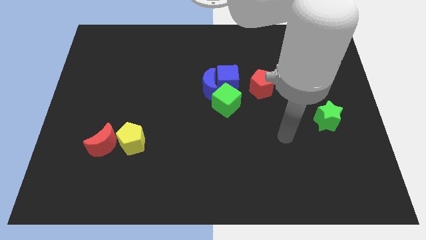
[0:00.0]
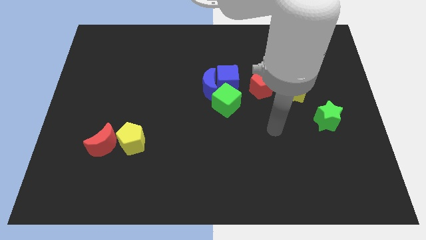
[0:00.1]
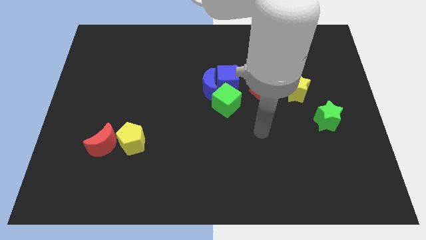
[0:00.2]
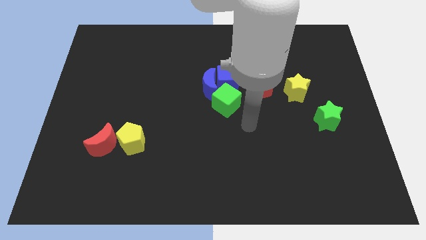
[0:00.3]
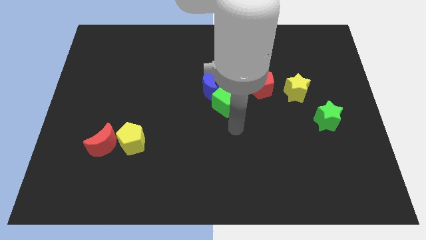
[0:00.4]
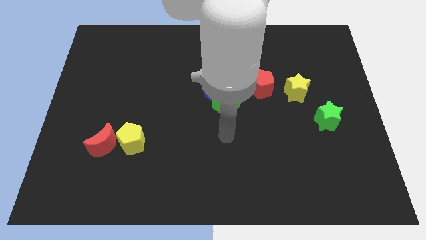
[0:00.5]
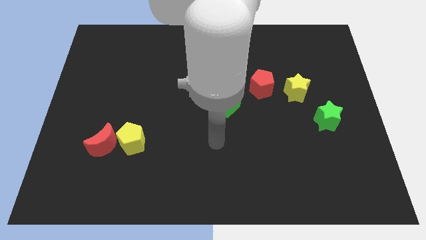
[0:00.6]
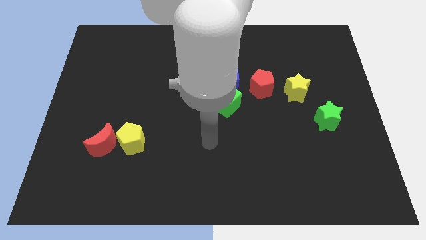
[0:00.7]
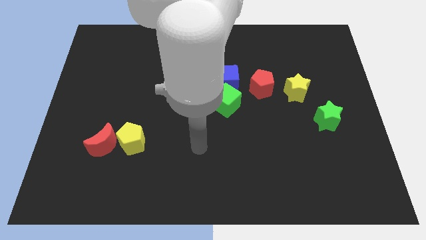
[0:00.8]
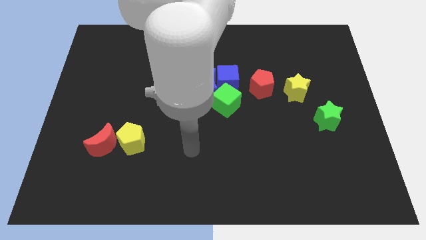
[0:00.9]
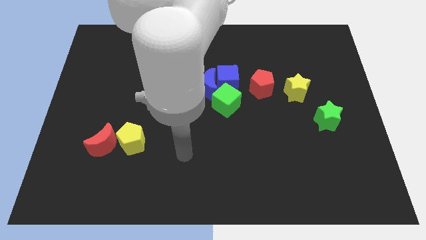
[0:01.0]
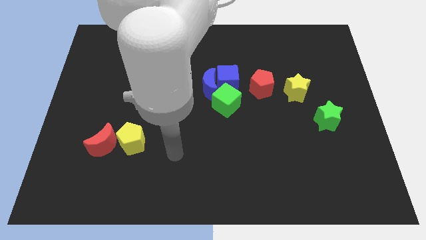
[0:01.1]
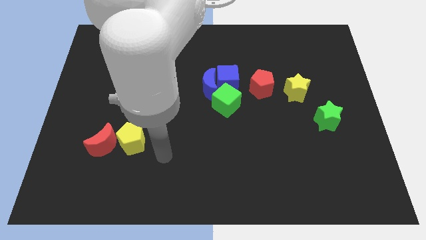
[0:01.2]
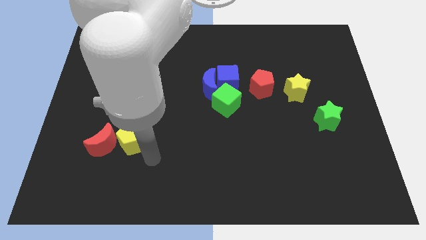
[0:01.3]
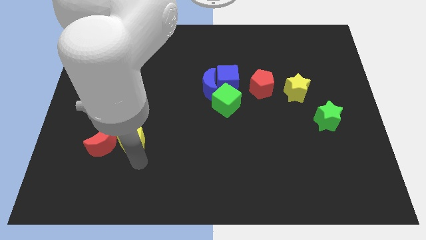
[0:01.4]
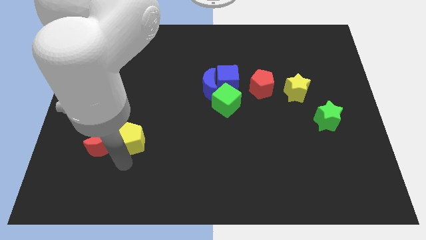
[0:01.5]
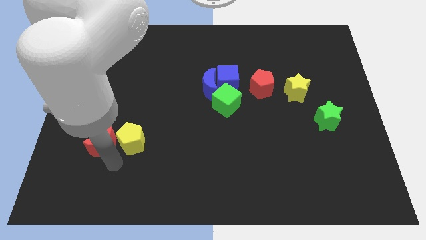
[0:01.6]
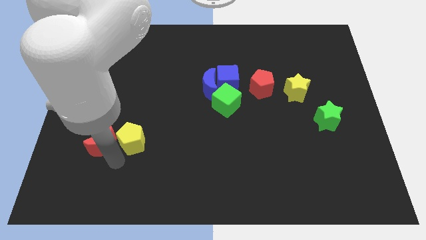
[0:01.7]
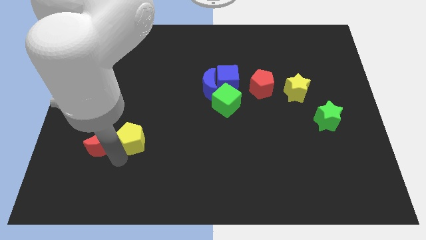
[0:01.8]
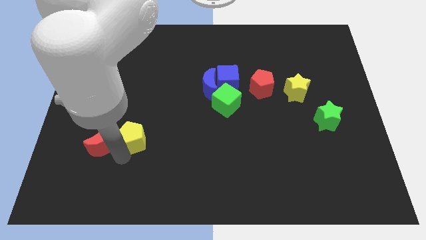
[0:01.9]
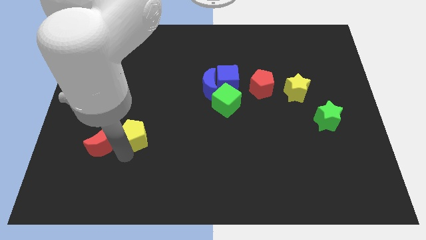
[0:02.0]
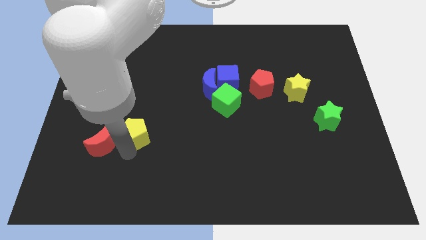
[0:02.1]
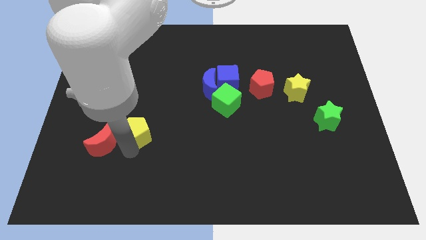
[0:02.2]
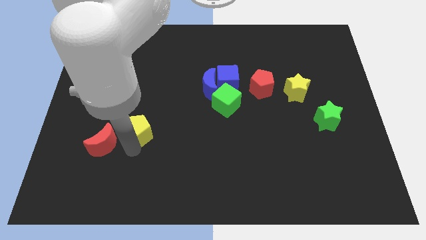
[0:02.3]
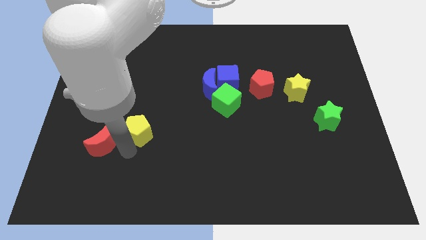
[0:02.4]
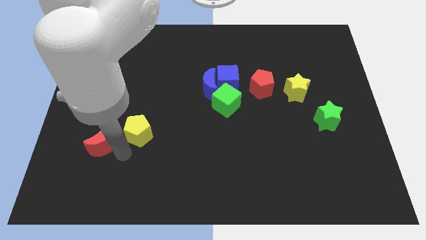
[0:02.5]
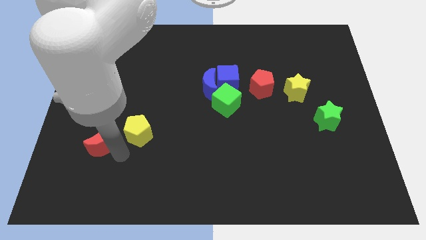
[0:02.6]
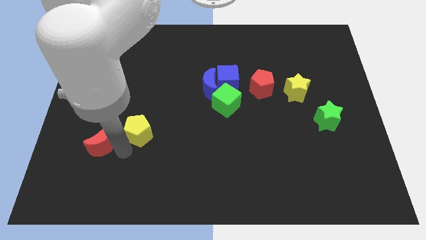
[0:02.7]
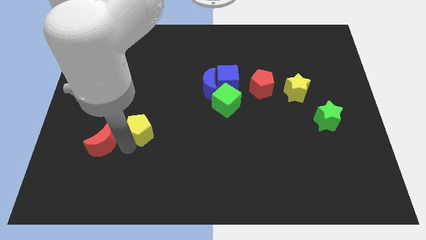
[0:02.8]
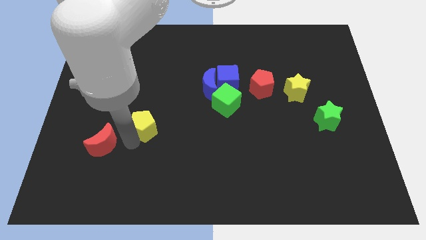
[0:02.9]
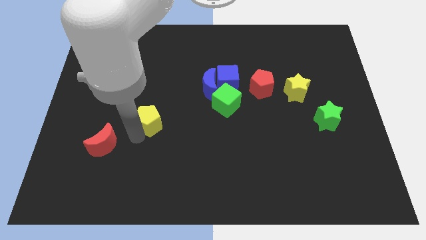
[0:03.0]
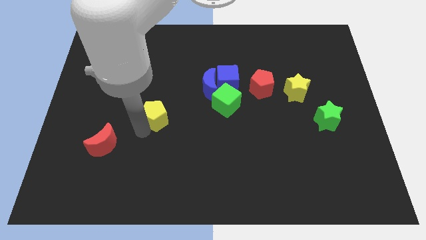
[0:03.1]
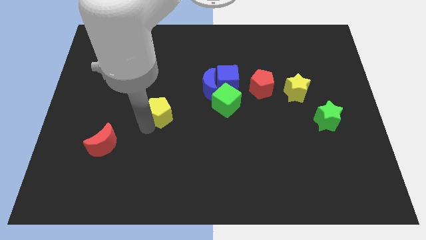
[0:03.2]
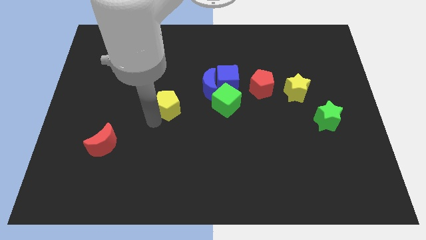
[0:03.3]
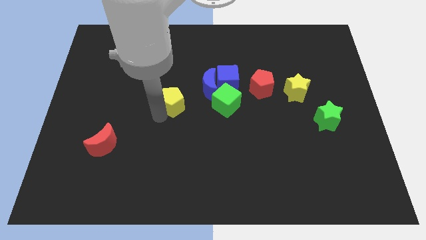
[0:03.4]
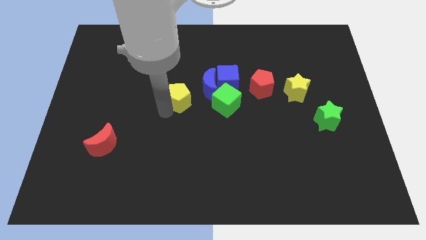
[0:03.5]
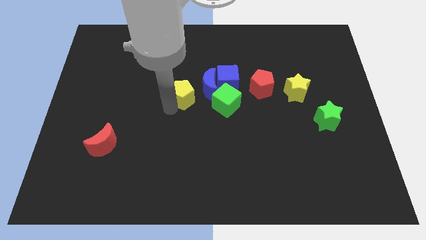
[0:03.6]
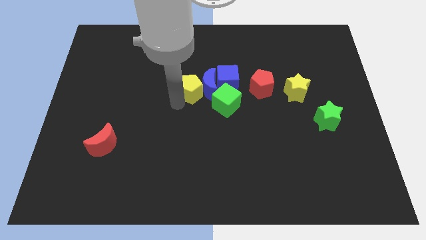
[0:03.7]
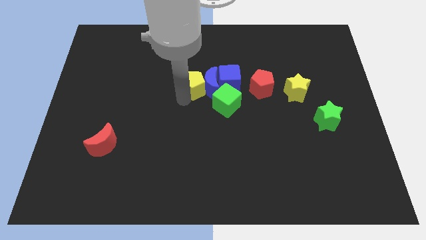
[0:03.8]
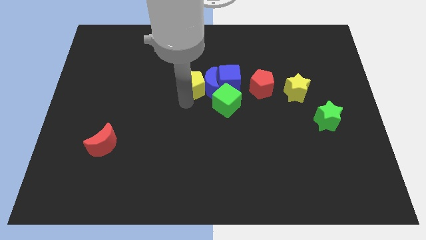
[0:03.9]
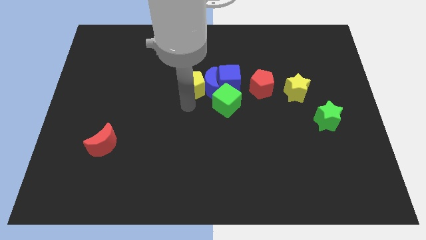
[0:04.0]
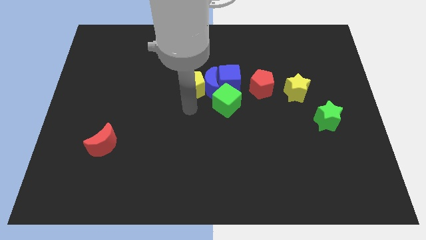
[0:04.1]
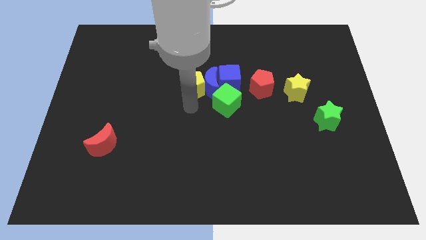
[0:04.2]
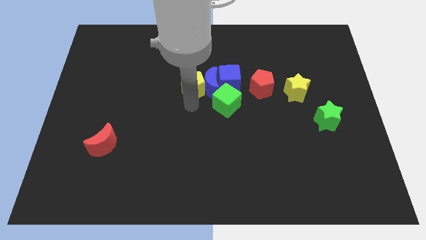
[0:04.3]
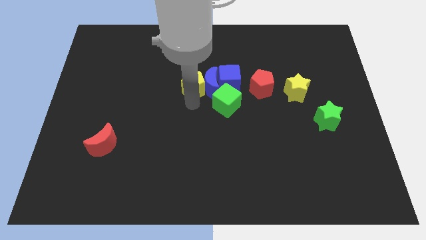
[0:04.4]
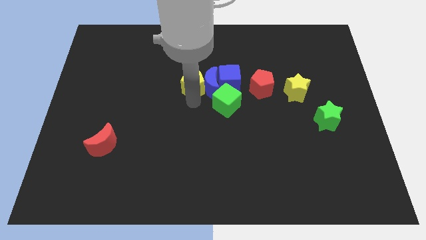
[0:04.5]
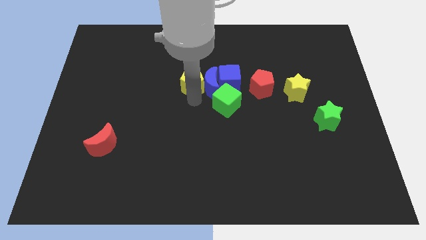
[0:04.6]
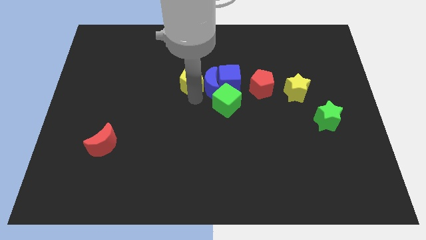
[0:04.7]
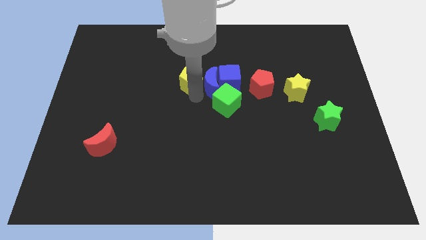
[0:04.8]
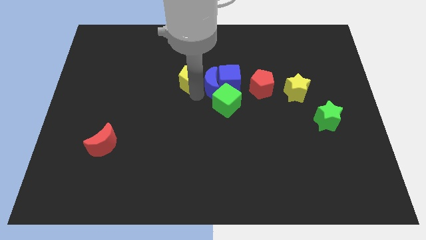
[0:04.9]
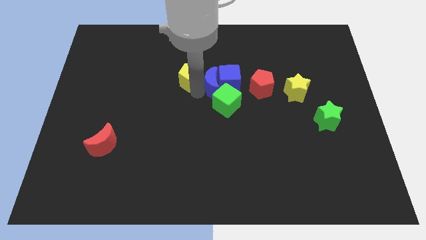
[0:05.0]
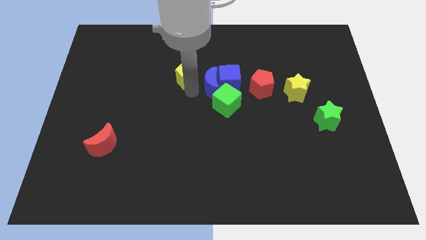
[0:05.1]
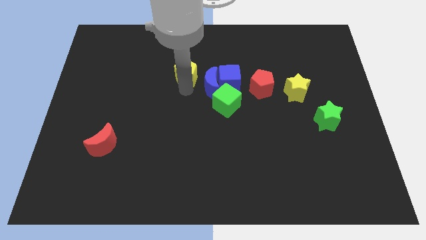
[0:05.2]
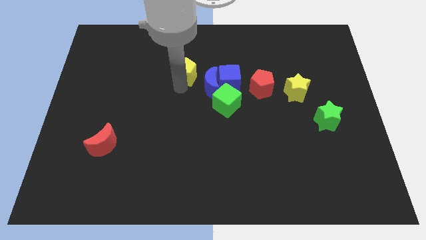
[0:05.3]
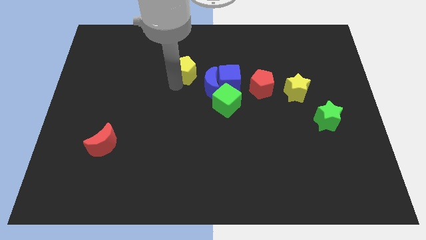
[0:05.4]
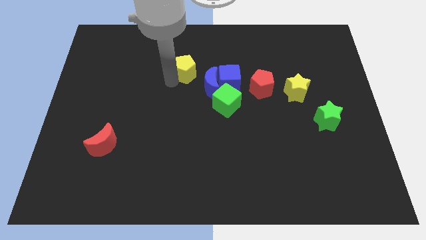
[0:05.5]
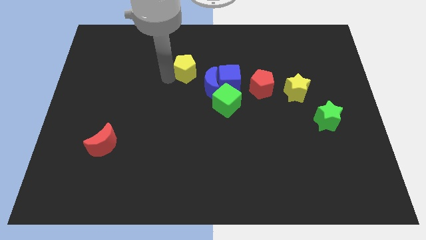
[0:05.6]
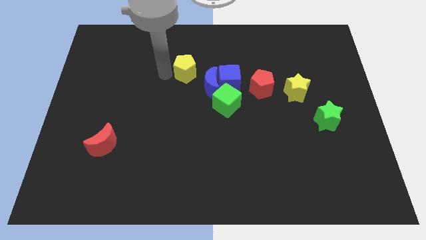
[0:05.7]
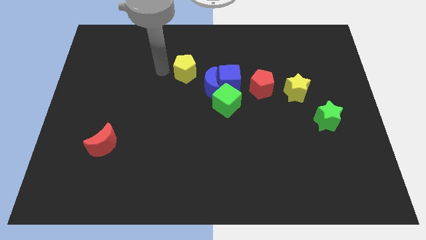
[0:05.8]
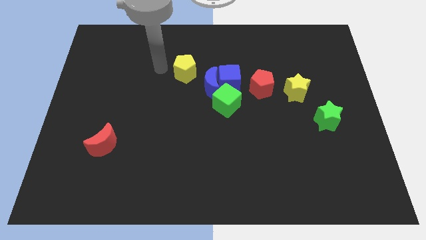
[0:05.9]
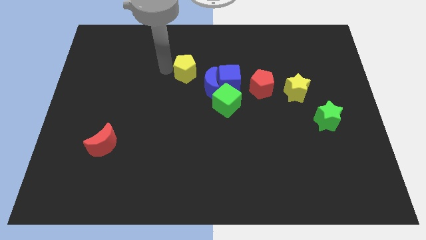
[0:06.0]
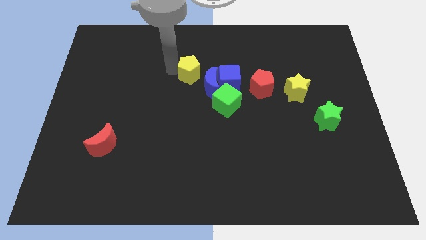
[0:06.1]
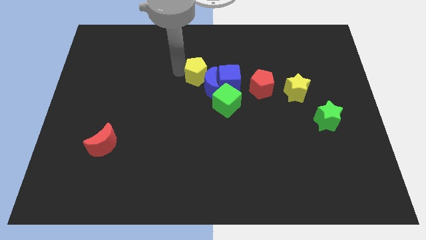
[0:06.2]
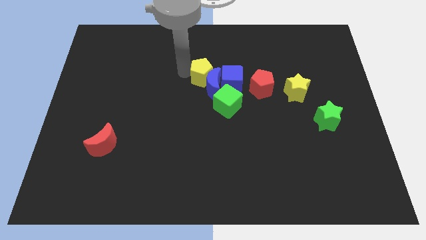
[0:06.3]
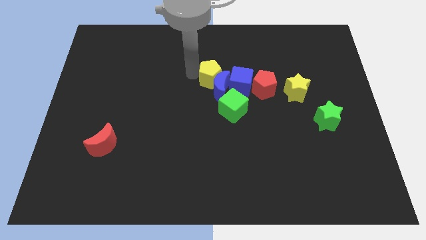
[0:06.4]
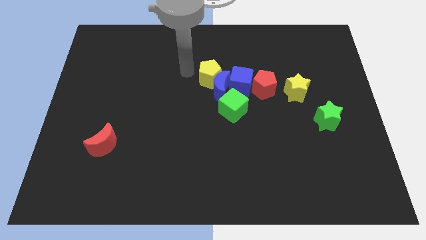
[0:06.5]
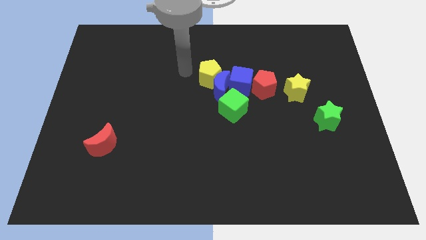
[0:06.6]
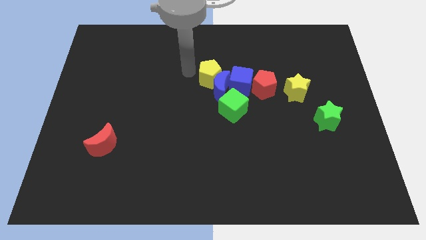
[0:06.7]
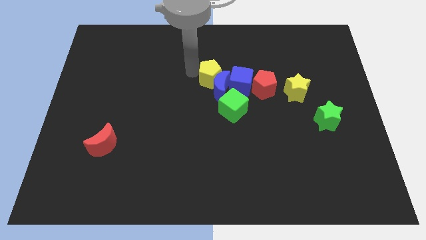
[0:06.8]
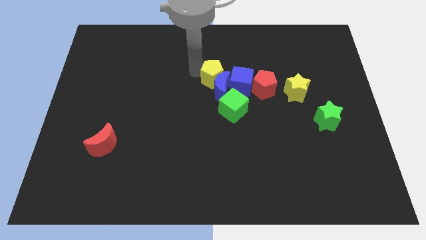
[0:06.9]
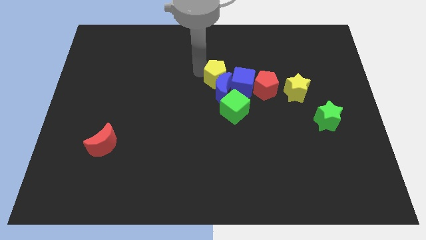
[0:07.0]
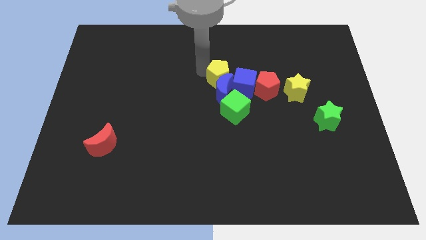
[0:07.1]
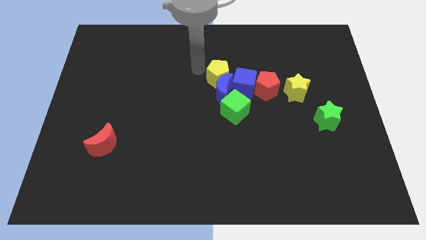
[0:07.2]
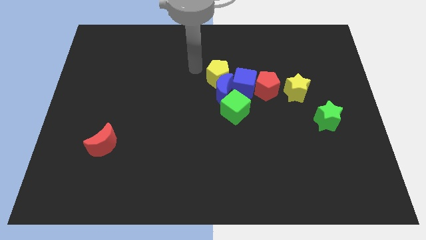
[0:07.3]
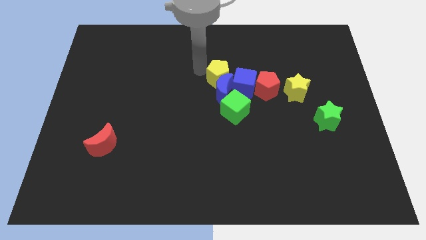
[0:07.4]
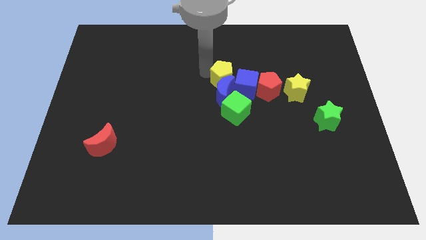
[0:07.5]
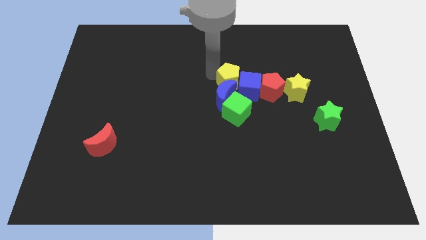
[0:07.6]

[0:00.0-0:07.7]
move the yellow pentagon next to the blue cube

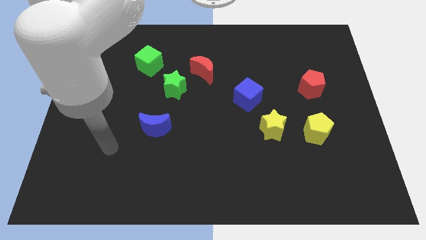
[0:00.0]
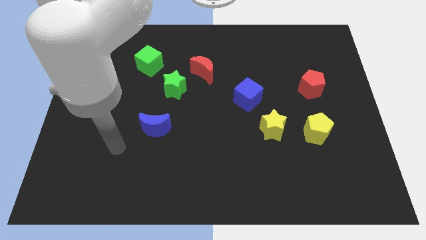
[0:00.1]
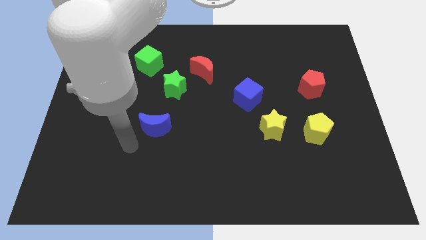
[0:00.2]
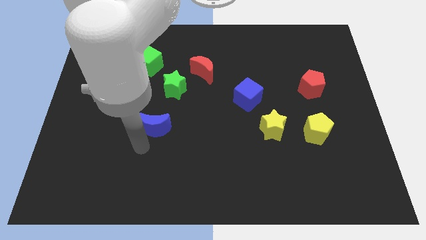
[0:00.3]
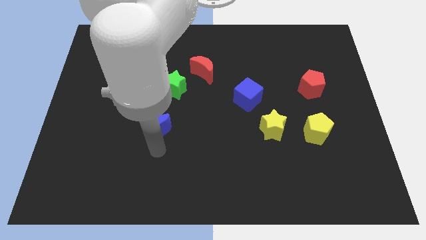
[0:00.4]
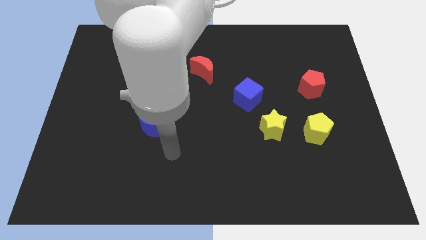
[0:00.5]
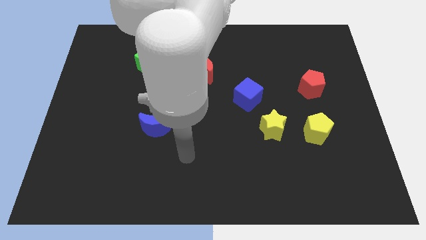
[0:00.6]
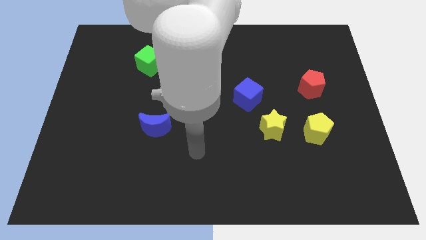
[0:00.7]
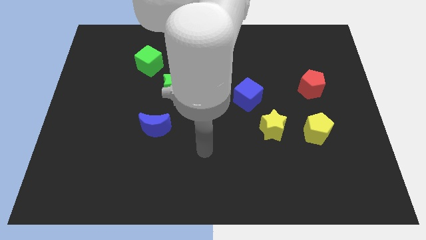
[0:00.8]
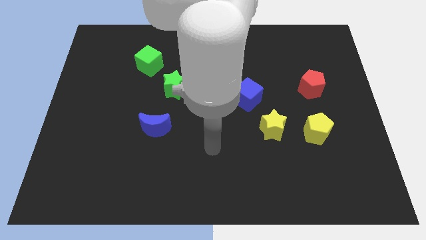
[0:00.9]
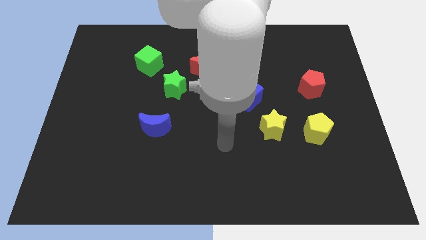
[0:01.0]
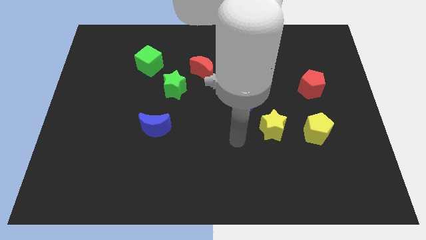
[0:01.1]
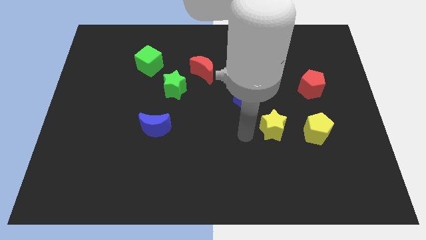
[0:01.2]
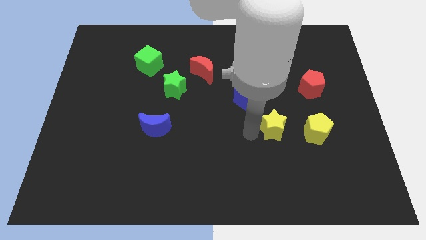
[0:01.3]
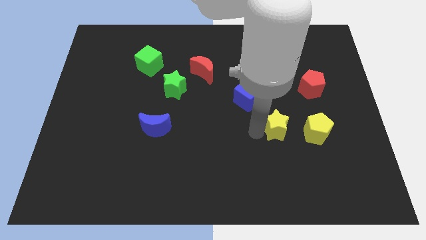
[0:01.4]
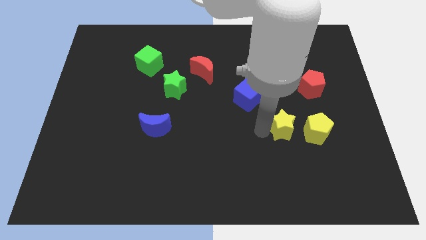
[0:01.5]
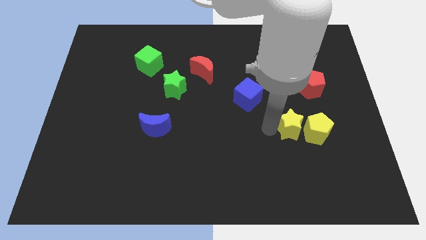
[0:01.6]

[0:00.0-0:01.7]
move the yellow star next to the yellow pentagon
